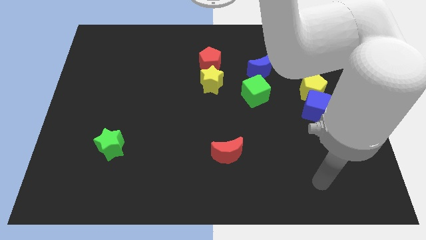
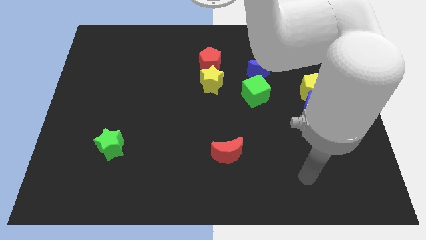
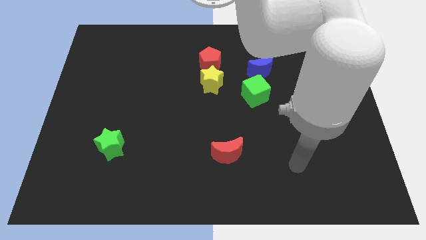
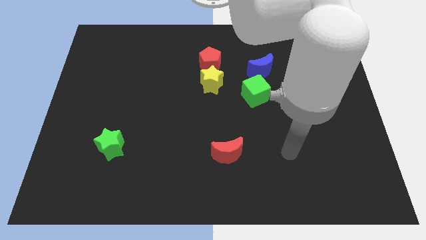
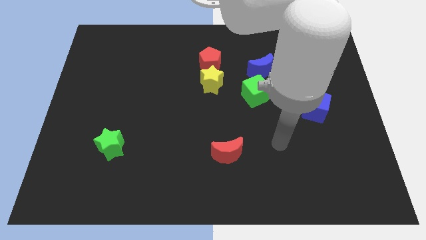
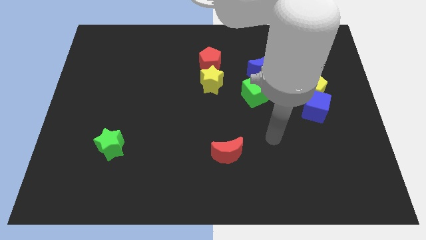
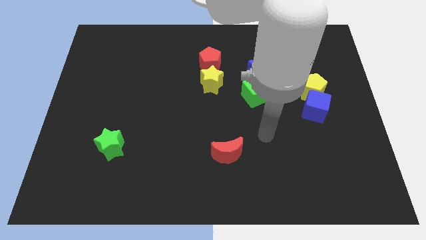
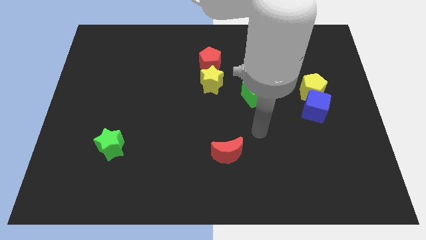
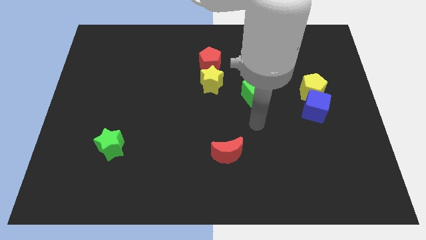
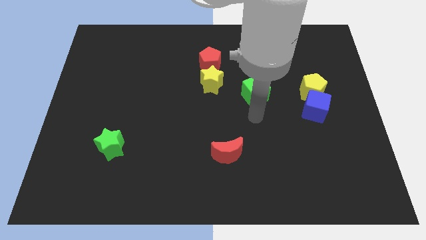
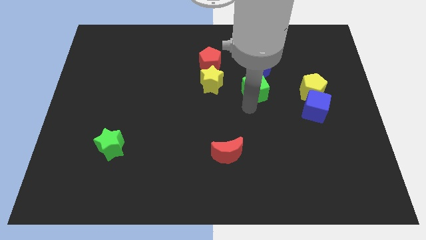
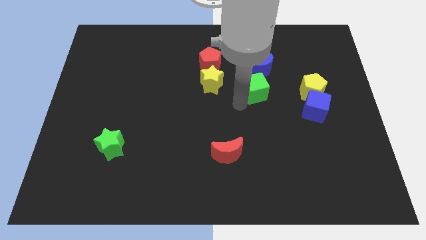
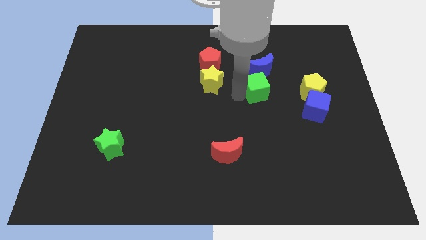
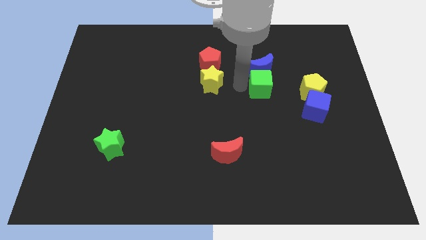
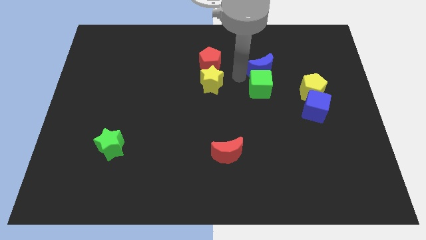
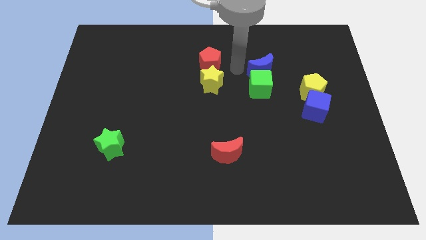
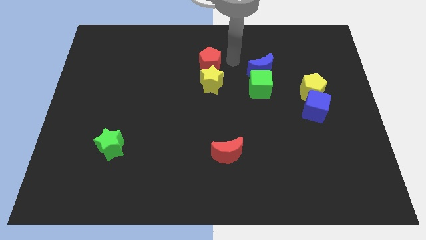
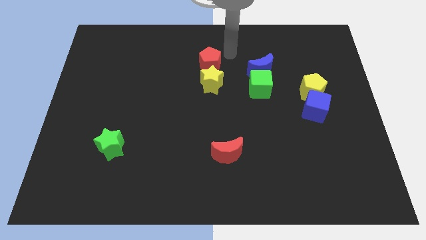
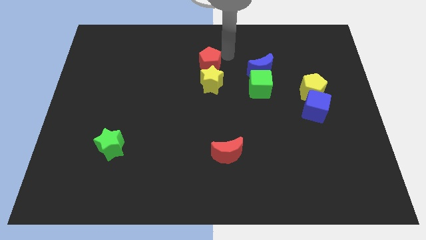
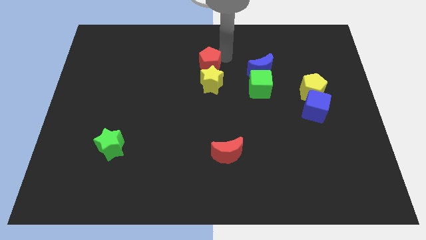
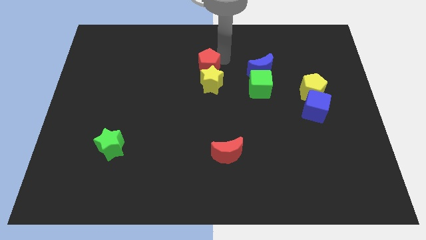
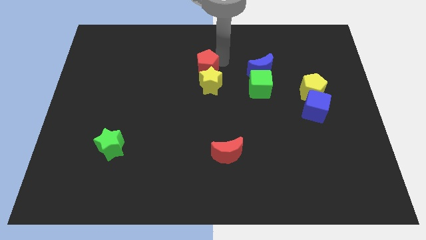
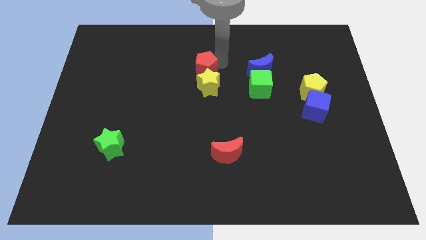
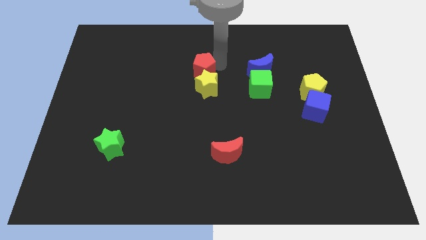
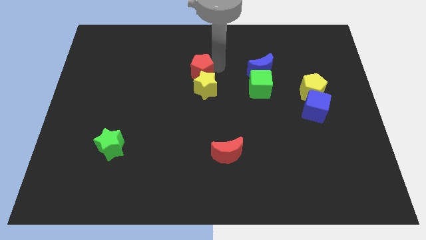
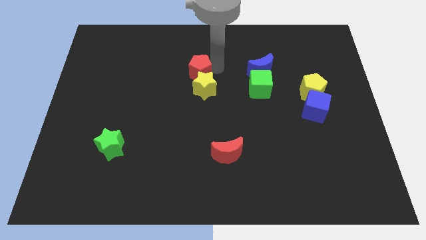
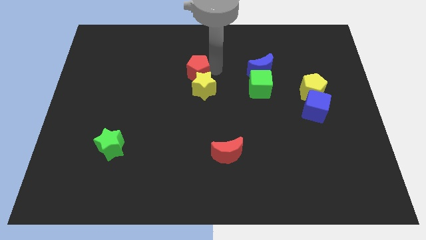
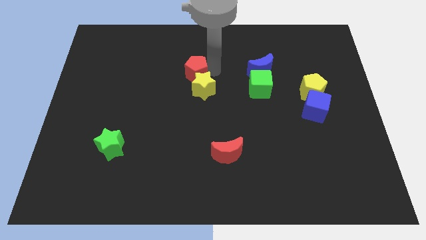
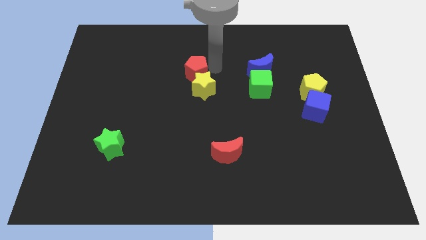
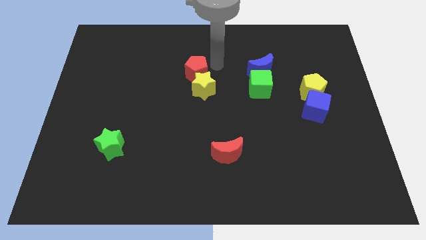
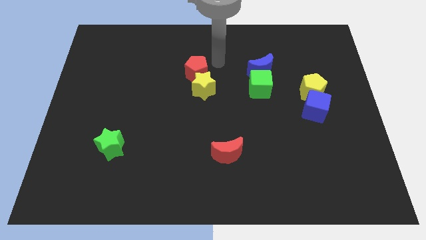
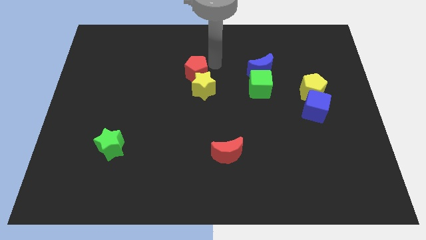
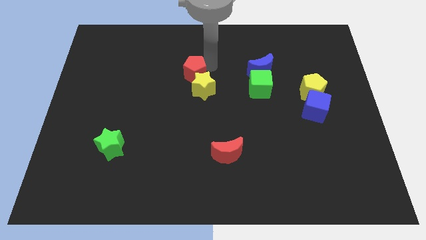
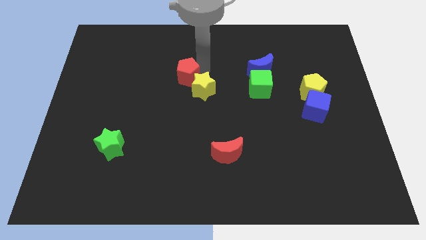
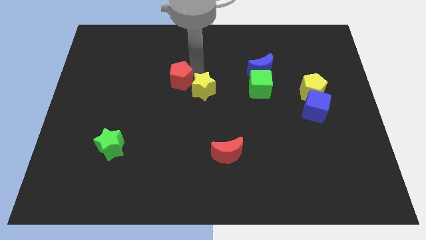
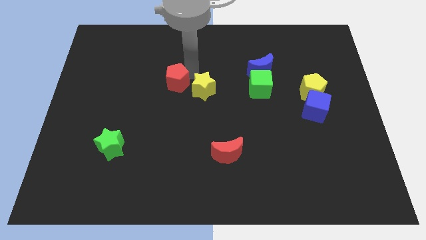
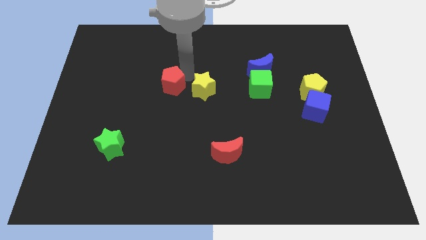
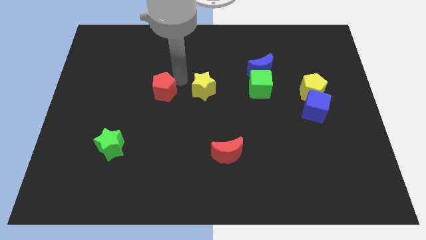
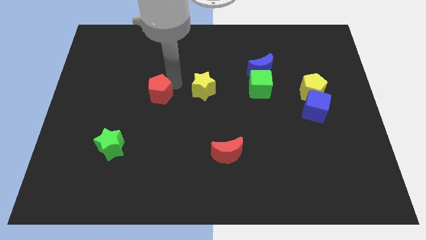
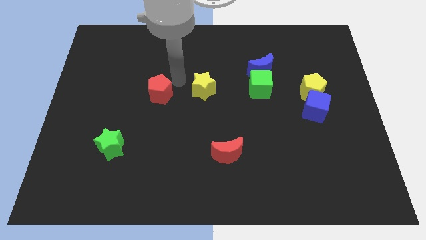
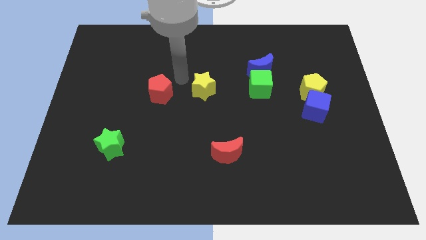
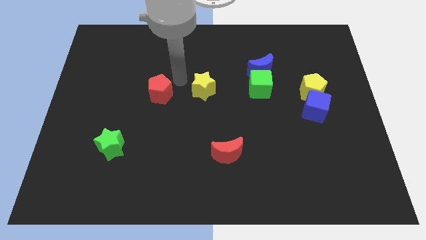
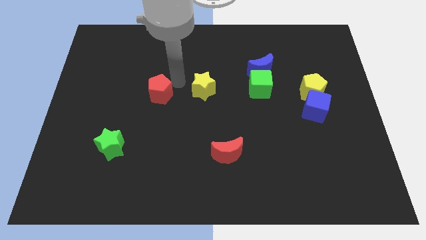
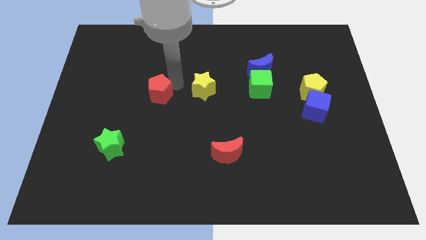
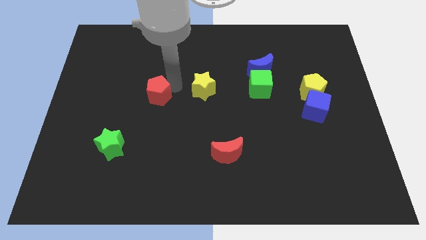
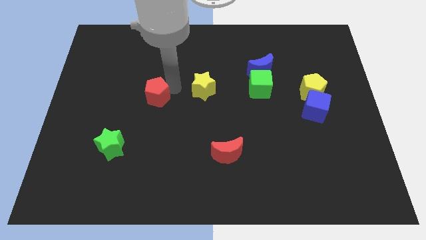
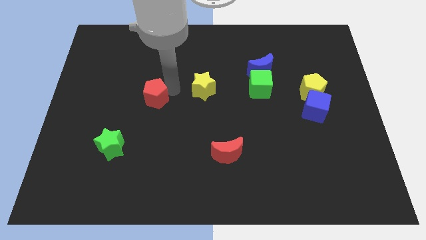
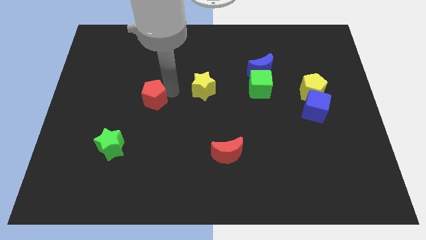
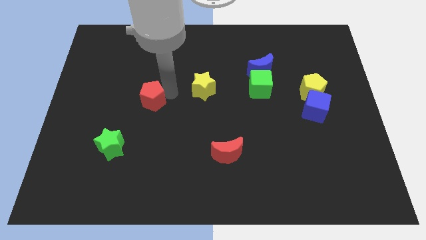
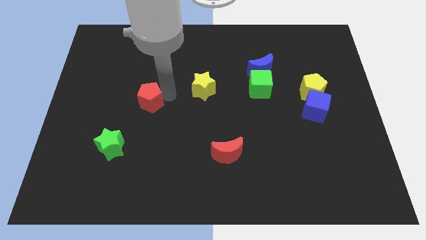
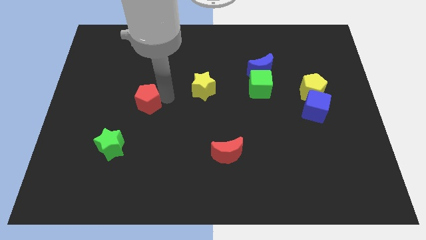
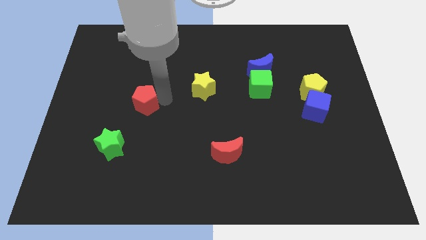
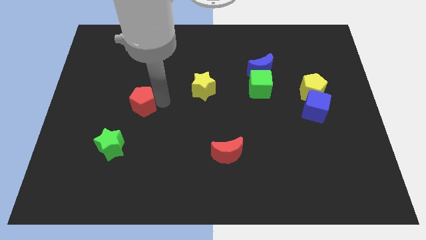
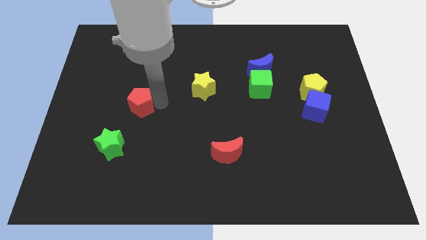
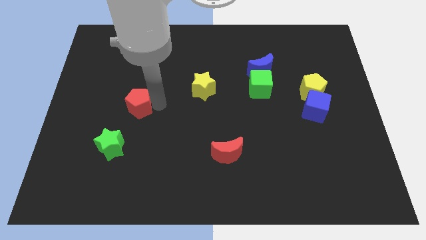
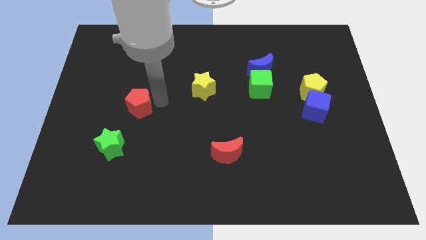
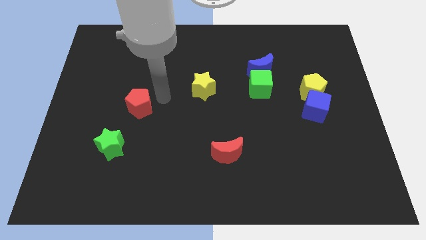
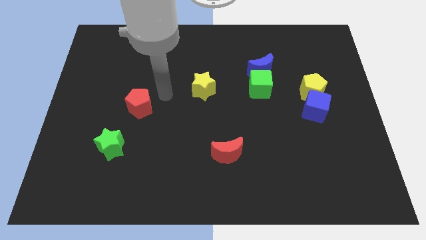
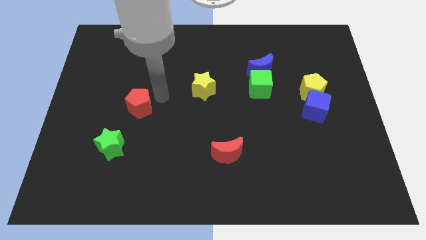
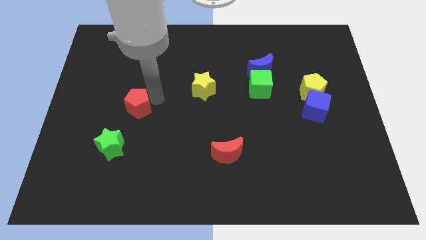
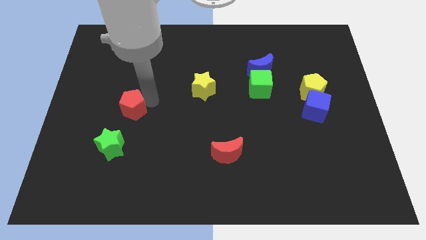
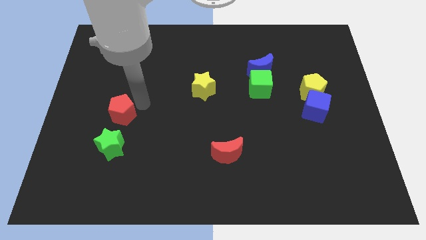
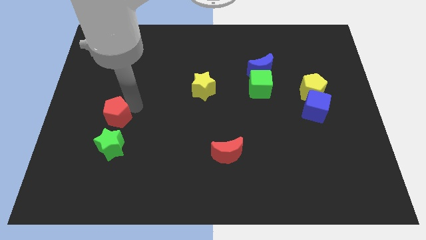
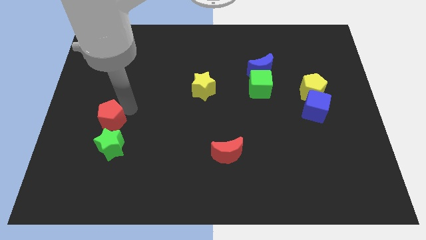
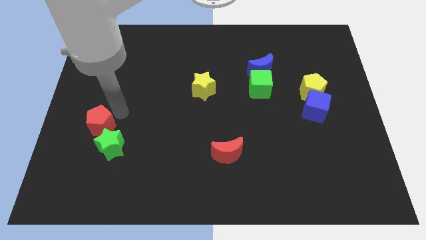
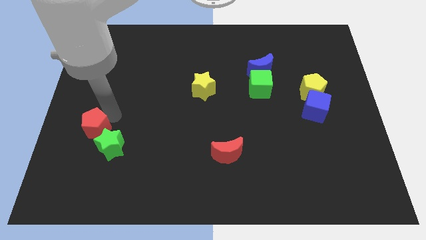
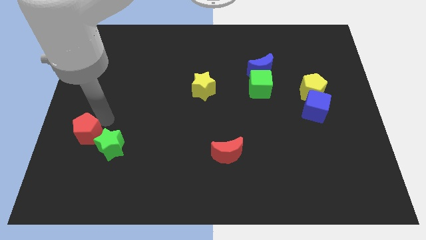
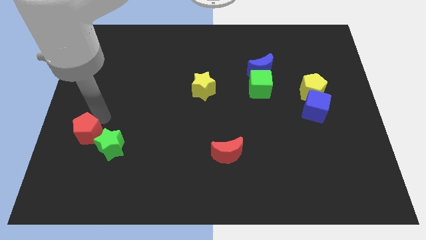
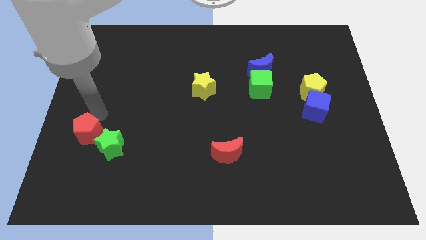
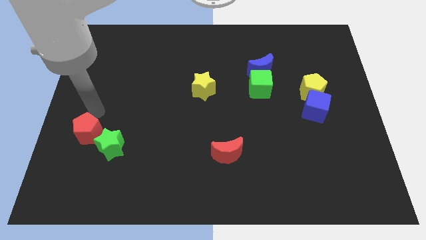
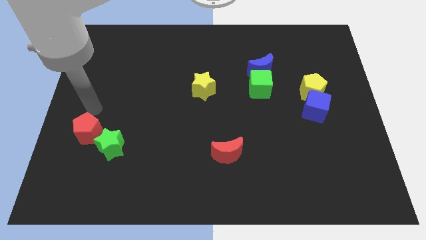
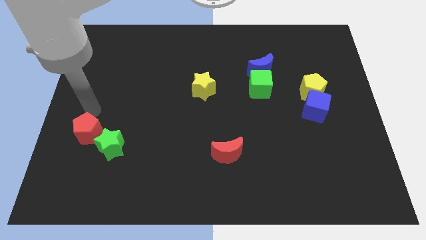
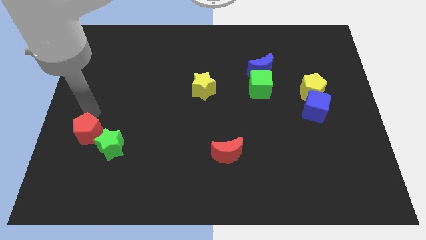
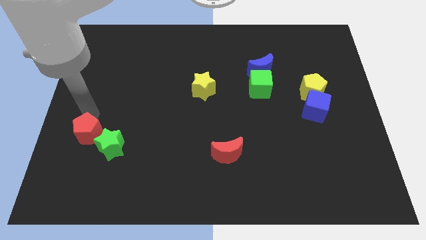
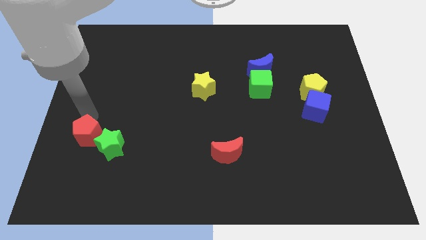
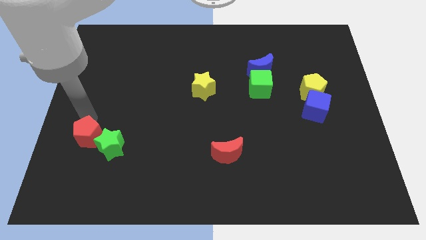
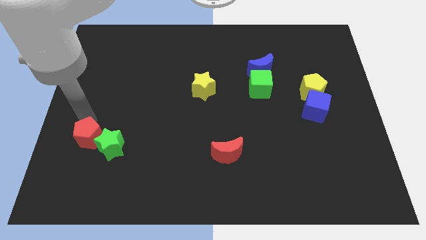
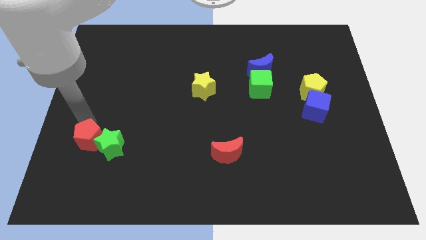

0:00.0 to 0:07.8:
slide the red pentagon to the bottom left side of the green star
